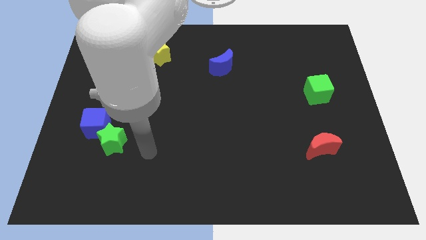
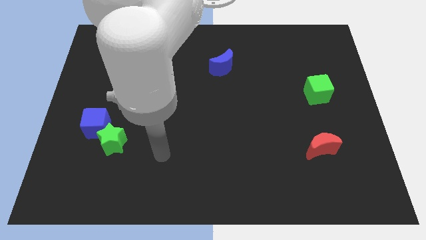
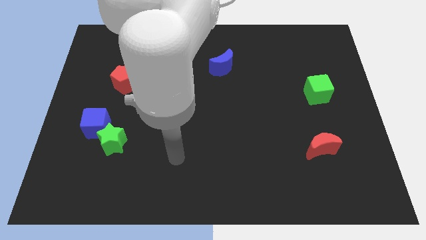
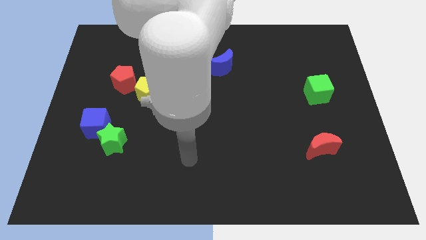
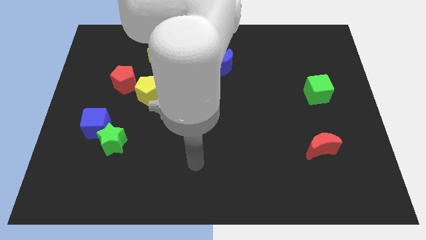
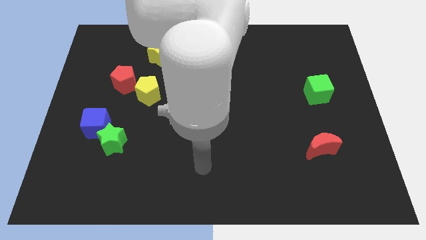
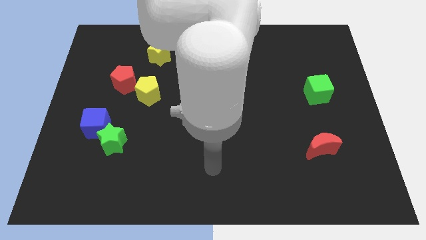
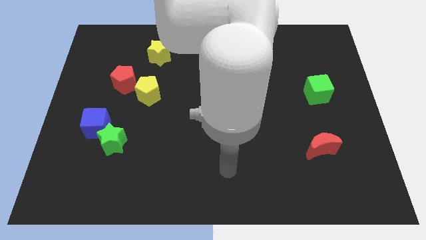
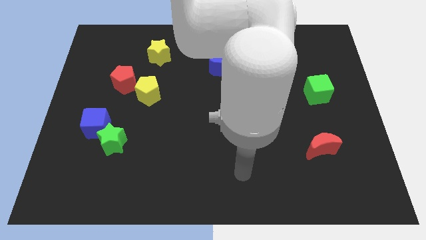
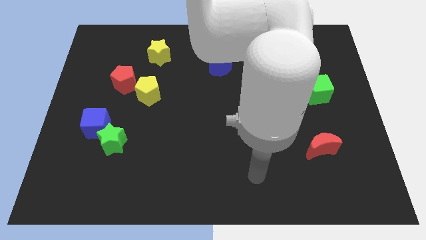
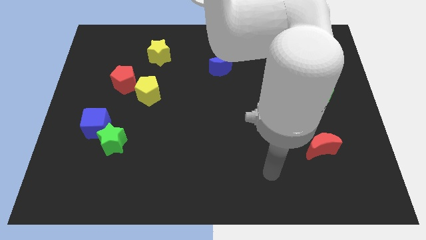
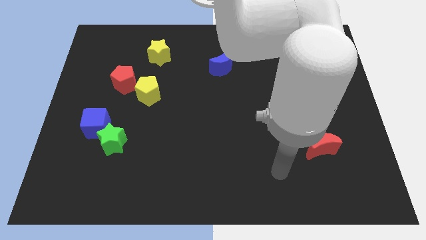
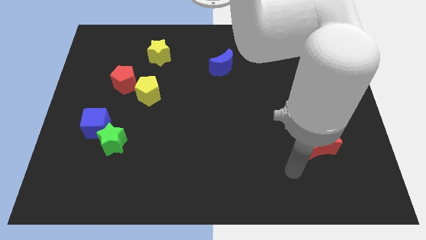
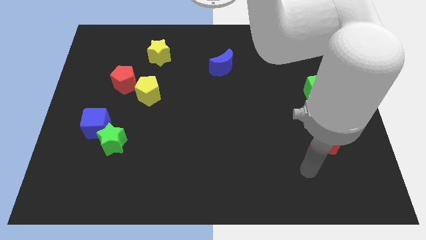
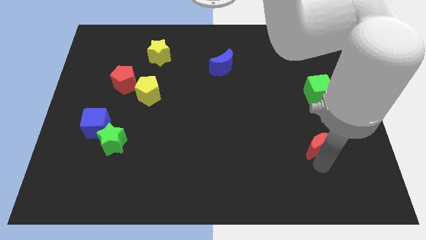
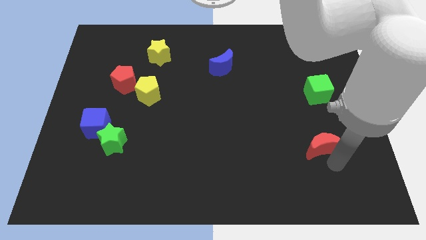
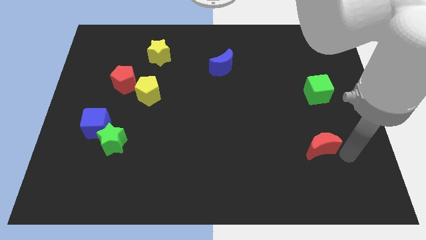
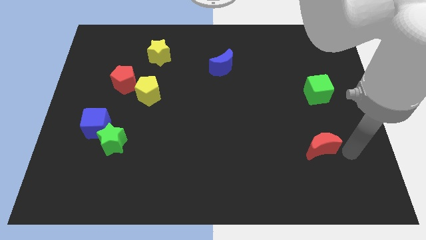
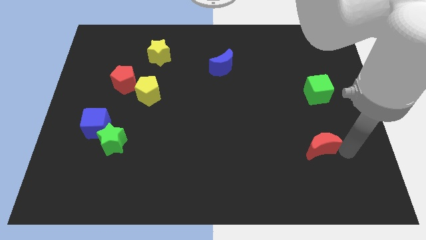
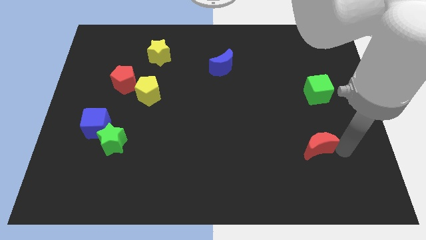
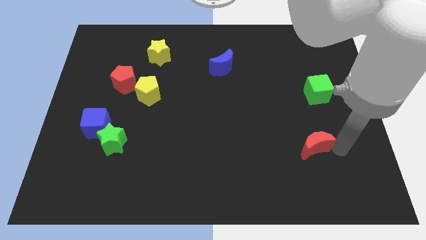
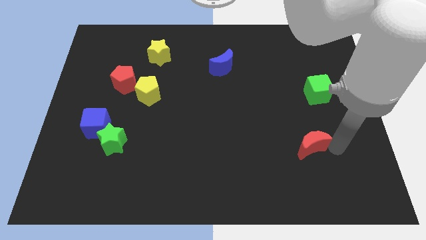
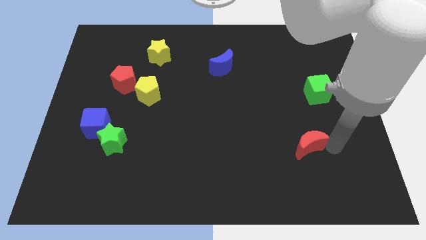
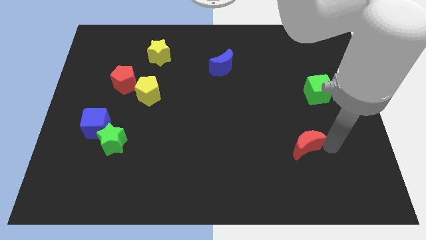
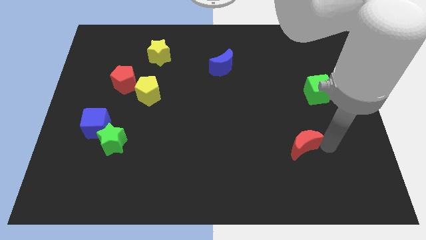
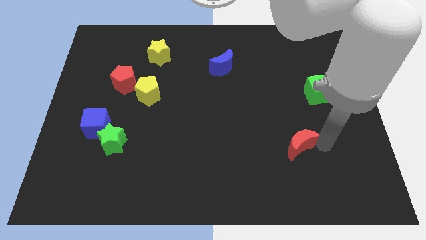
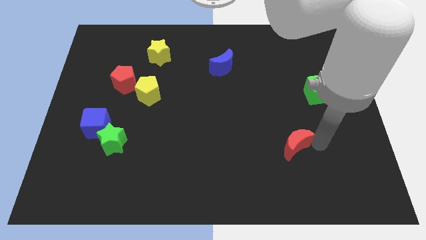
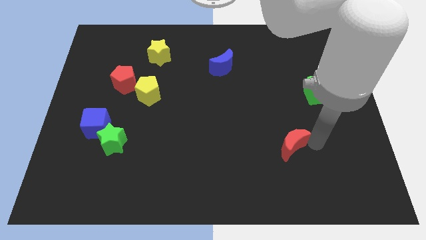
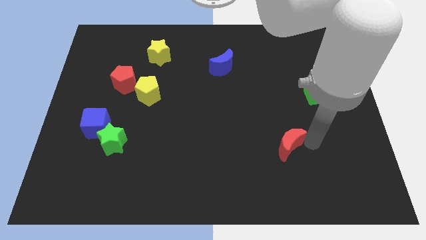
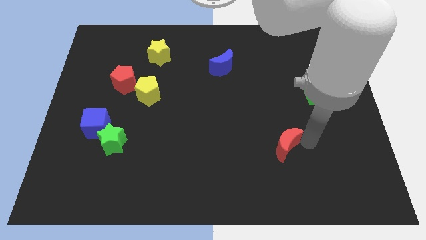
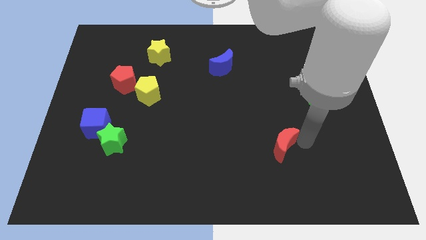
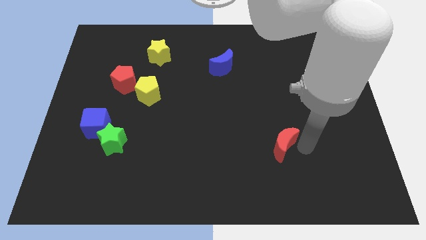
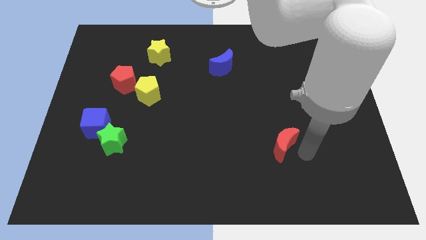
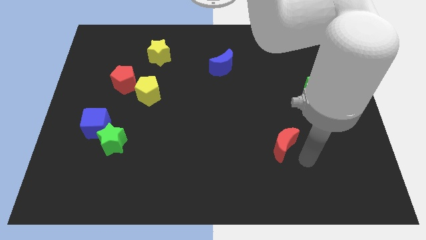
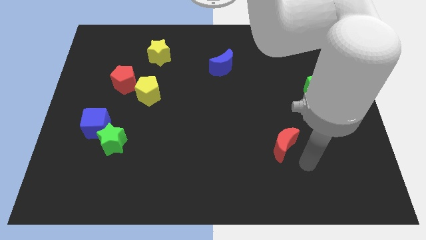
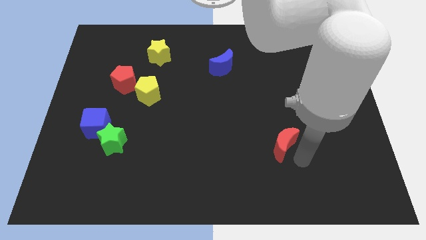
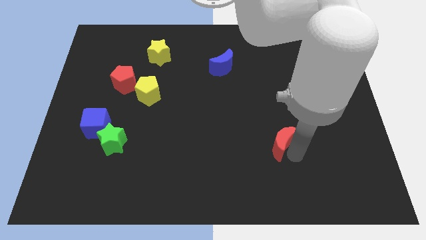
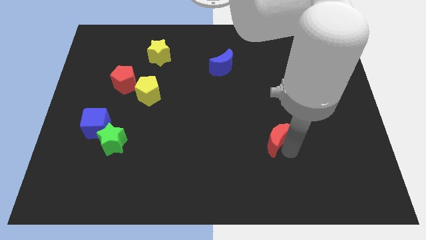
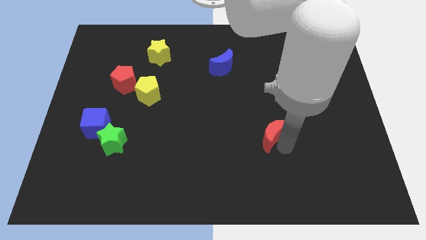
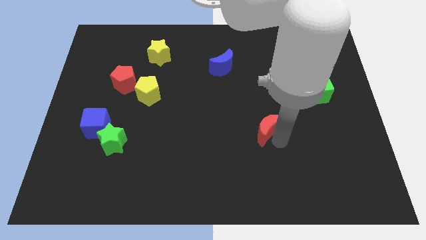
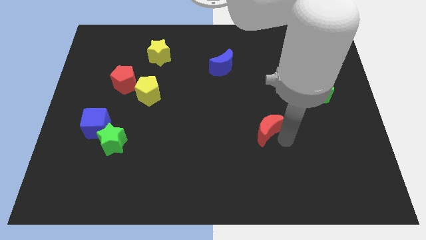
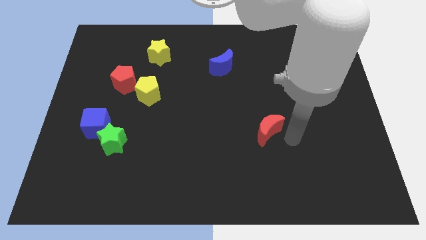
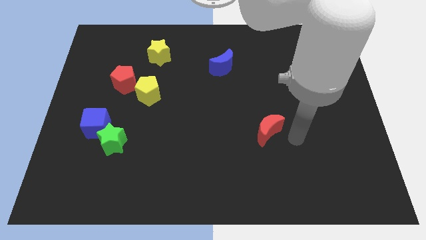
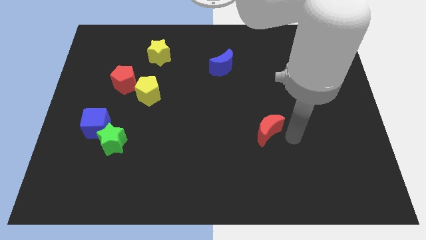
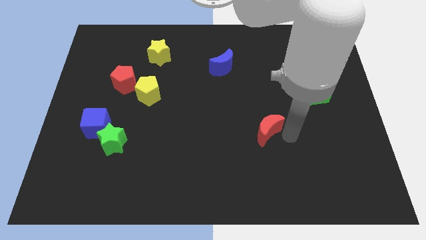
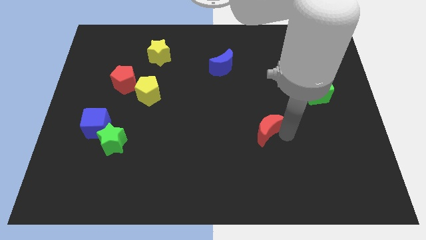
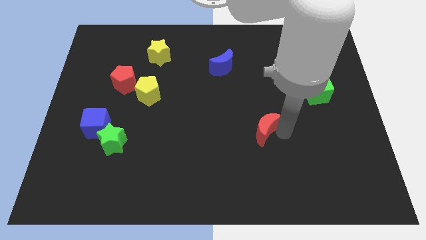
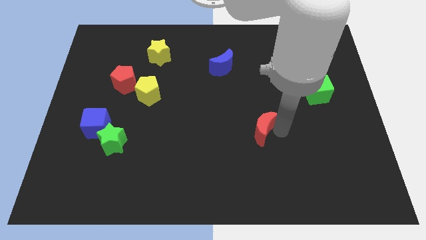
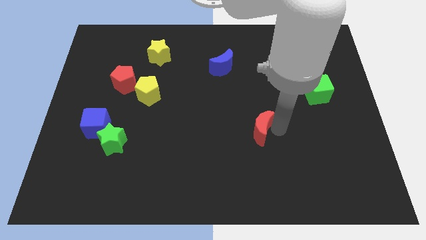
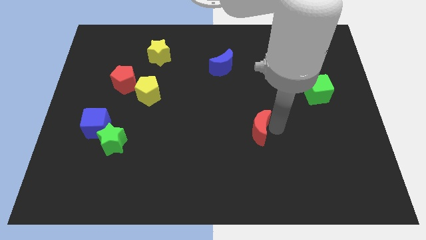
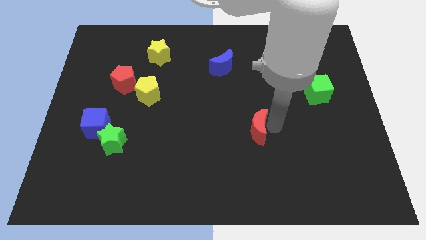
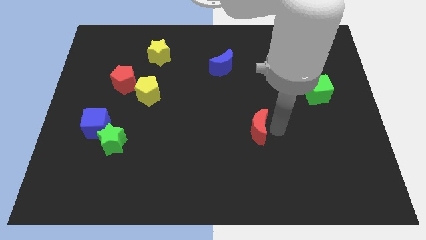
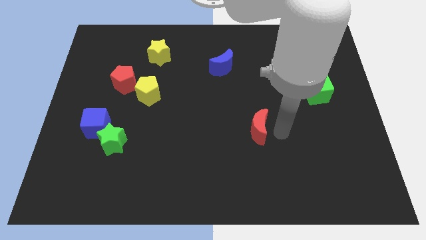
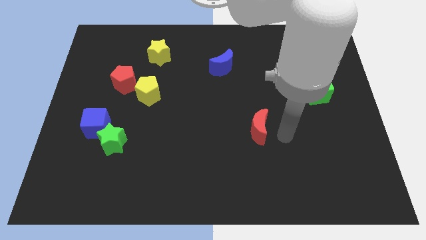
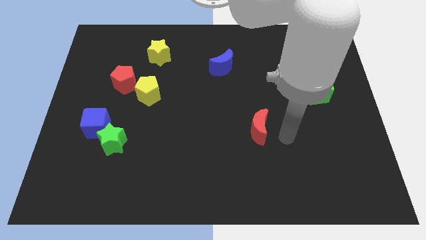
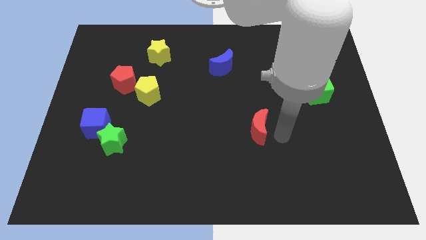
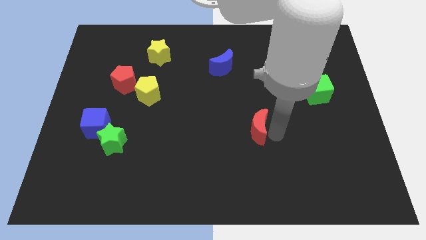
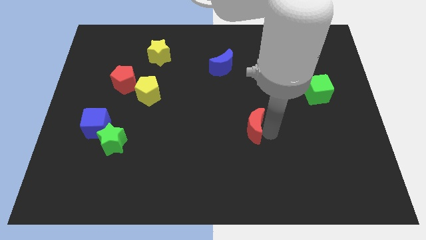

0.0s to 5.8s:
push the red moon to the middle of the board

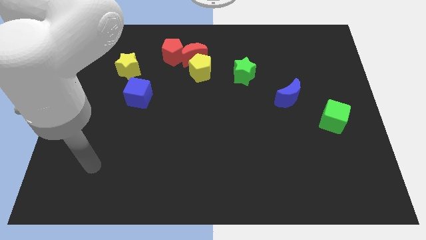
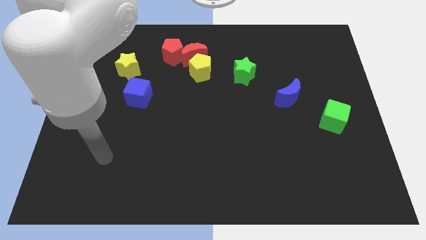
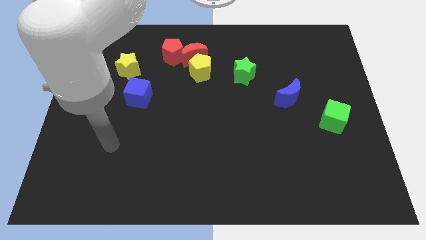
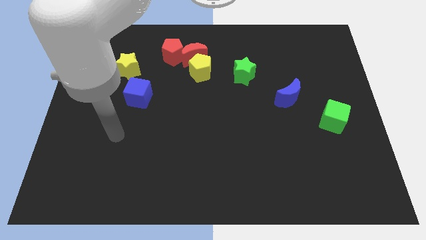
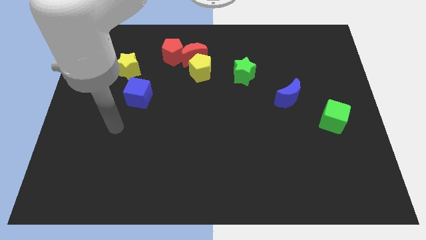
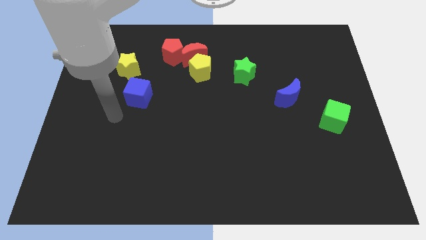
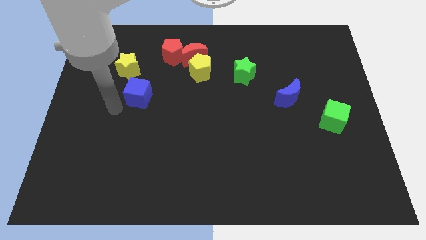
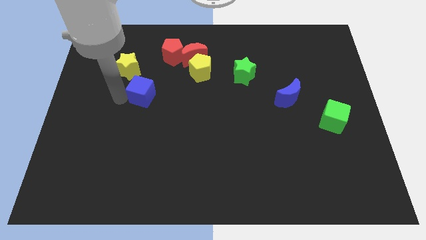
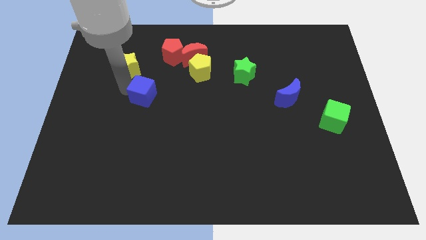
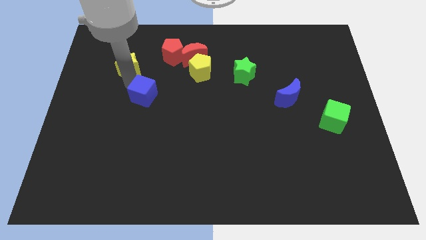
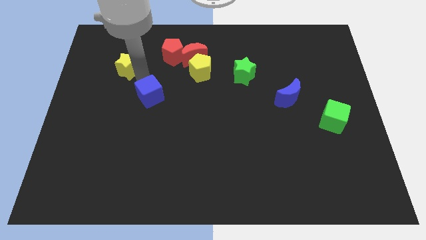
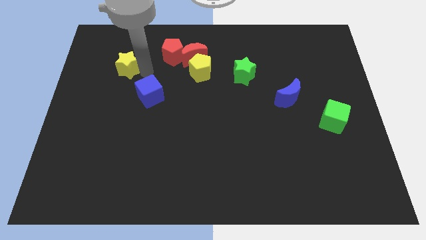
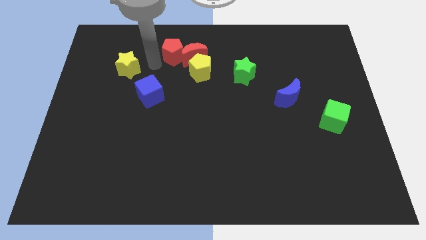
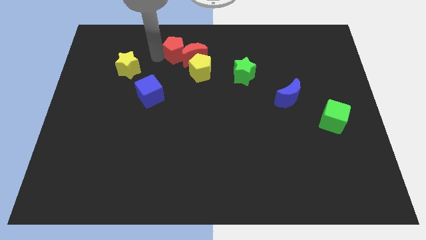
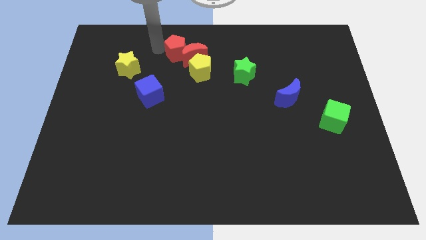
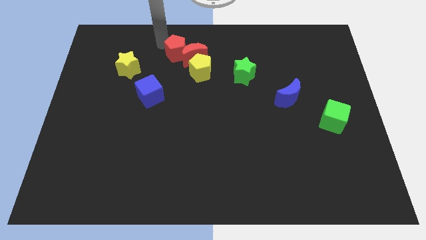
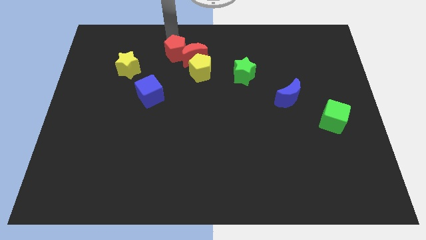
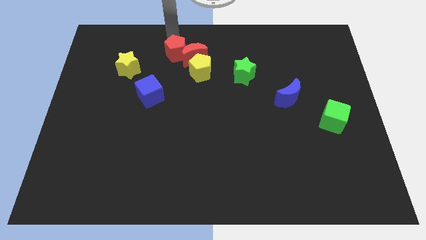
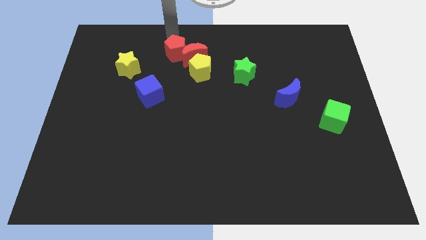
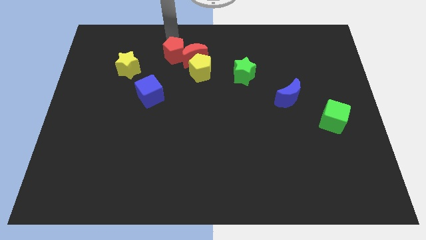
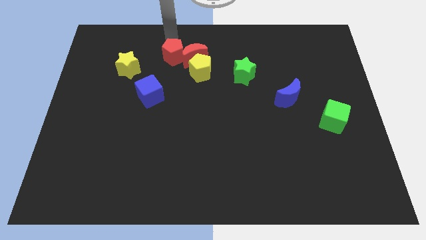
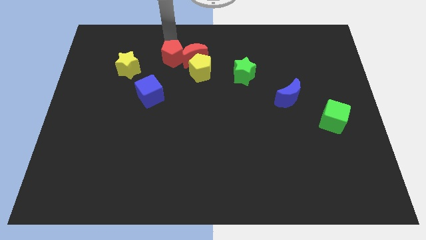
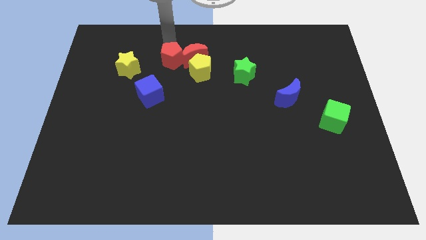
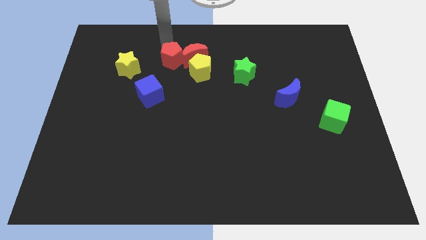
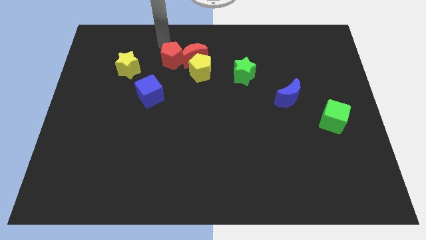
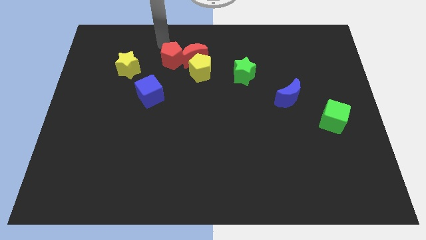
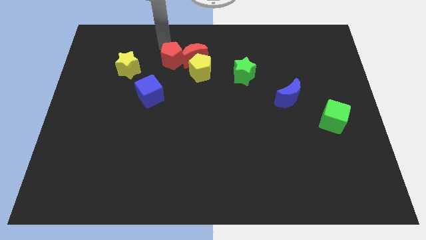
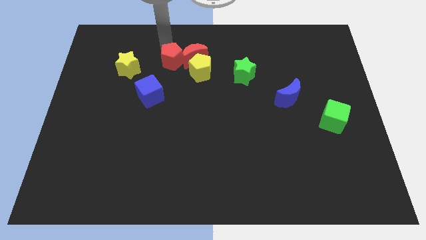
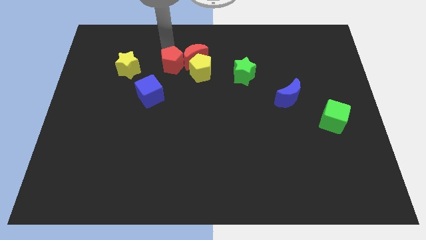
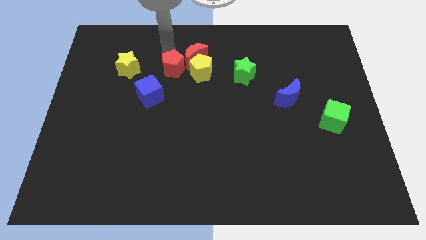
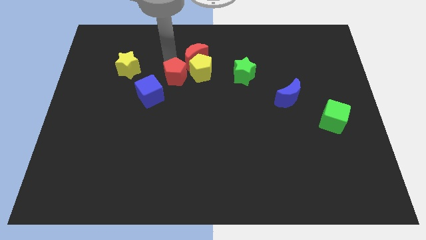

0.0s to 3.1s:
slide the red pentagon to the middle of the board
